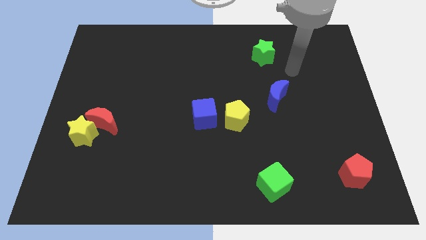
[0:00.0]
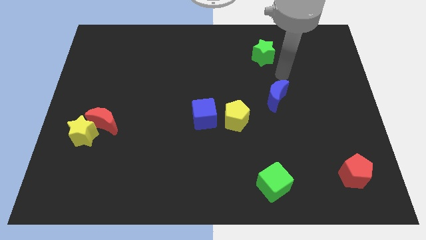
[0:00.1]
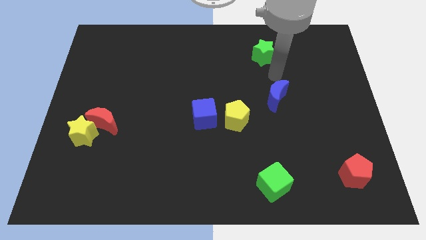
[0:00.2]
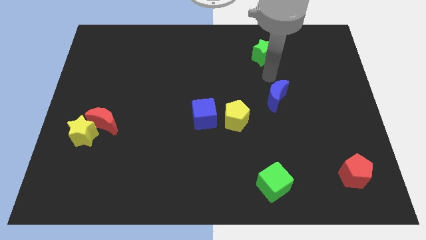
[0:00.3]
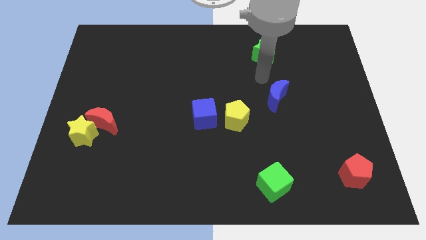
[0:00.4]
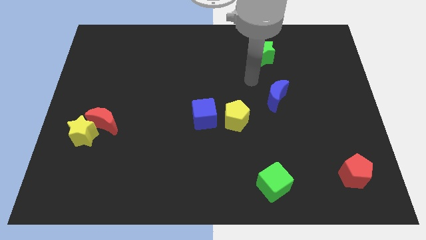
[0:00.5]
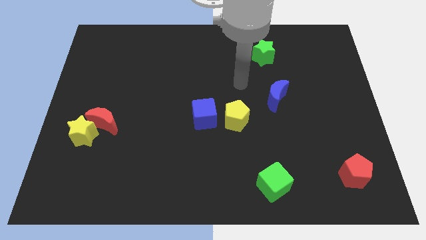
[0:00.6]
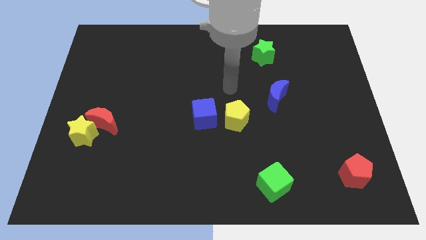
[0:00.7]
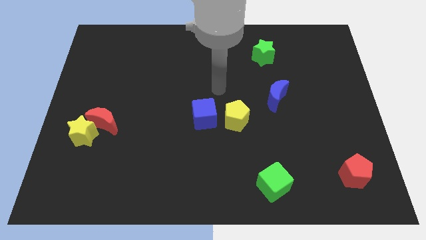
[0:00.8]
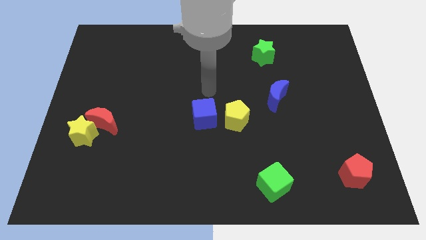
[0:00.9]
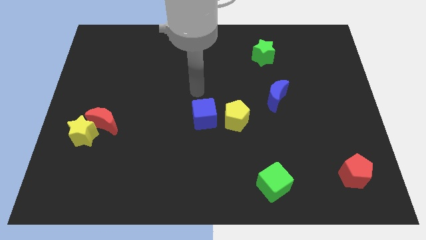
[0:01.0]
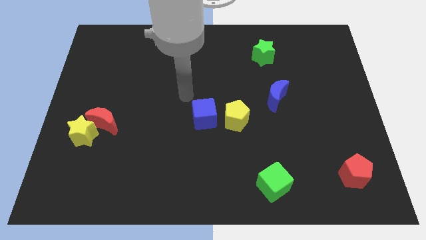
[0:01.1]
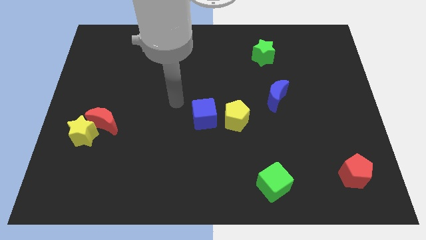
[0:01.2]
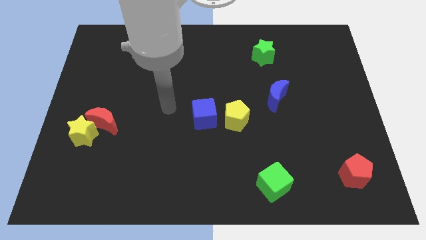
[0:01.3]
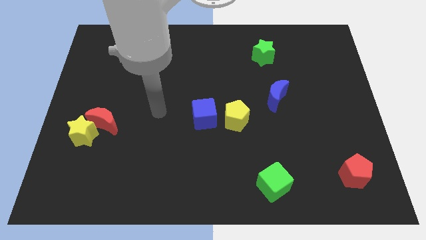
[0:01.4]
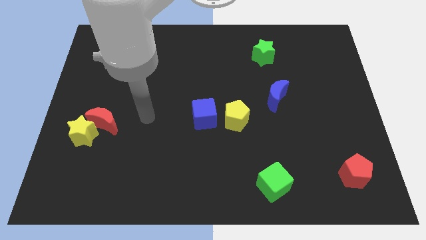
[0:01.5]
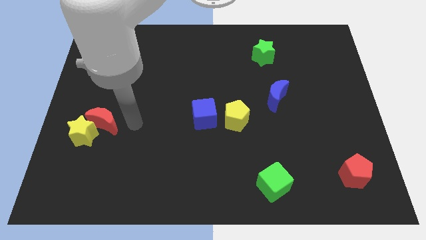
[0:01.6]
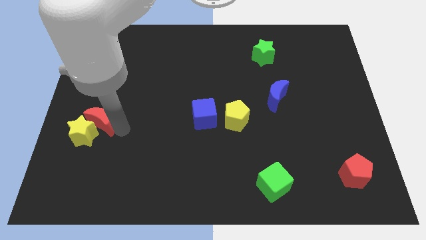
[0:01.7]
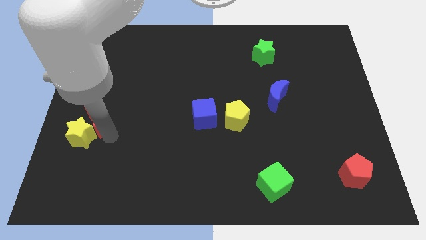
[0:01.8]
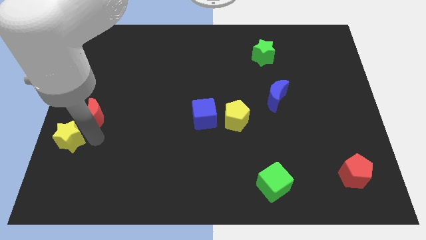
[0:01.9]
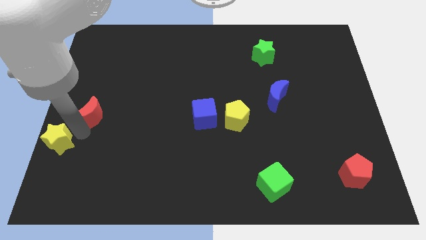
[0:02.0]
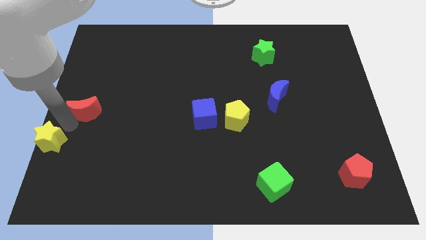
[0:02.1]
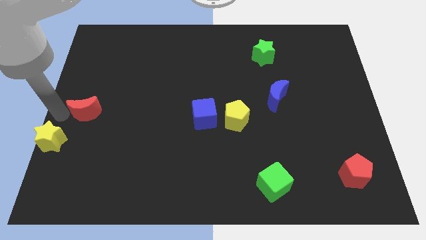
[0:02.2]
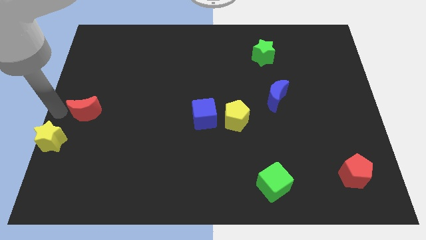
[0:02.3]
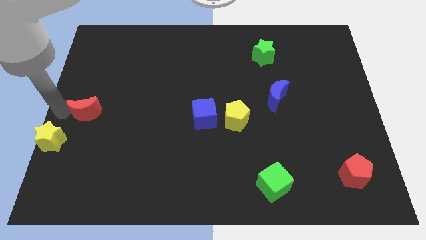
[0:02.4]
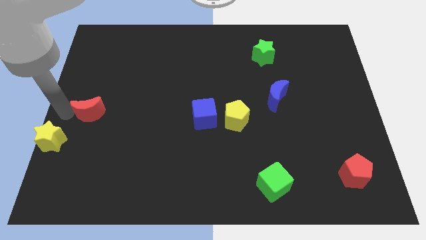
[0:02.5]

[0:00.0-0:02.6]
separate the red moon from the yellow star

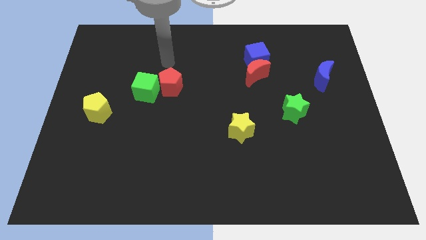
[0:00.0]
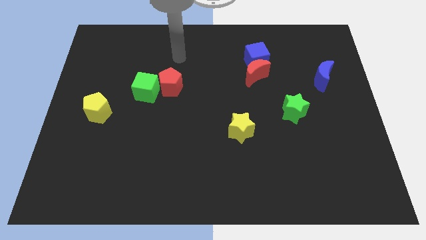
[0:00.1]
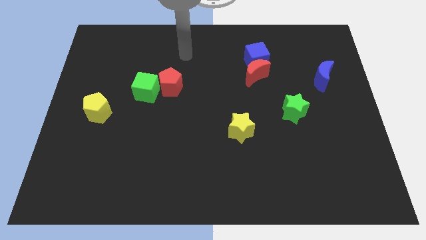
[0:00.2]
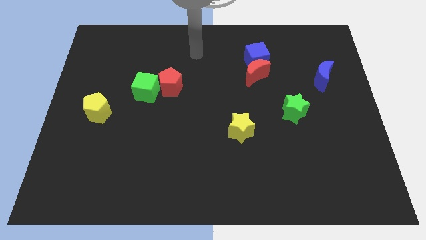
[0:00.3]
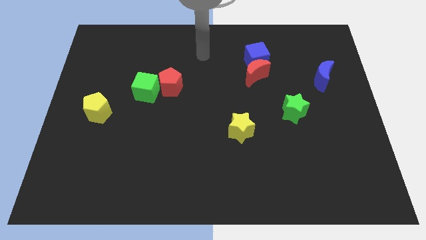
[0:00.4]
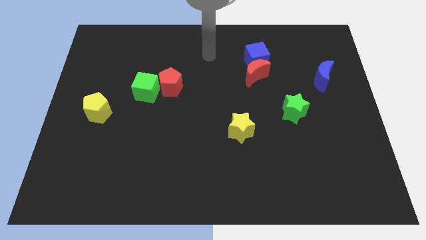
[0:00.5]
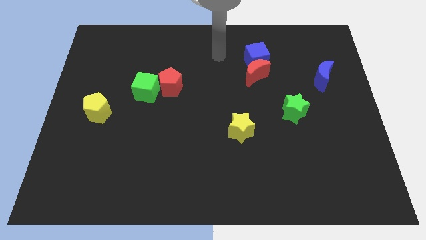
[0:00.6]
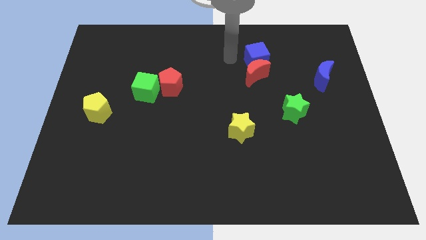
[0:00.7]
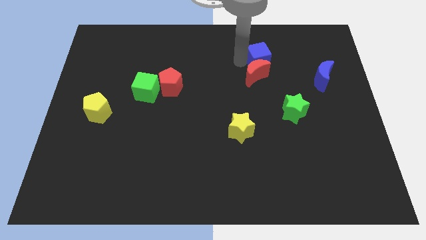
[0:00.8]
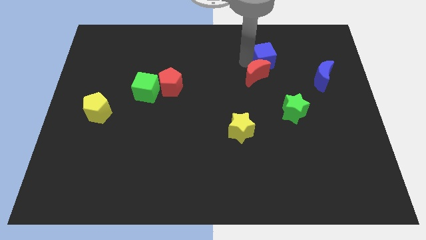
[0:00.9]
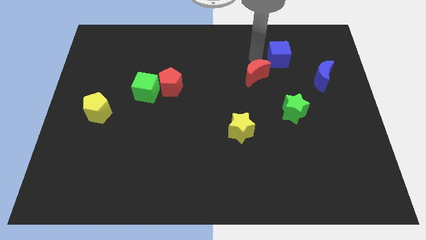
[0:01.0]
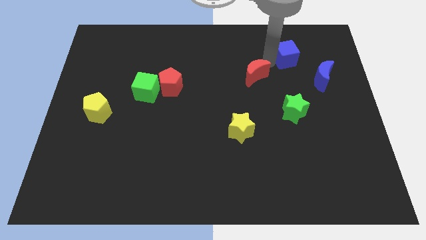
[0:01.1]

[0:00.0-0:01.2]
pull the red moon apart from the blue cube

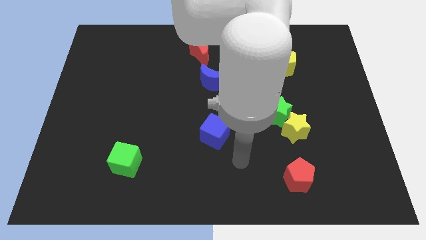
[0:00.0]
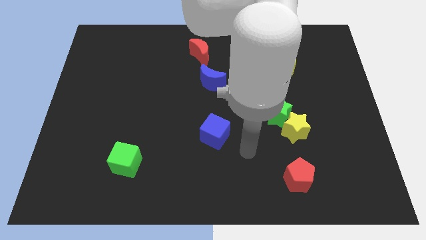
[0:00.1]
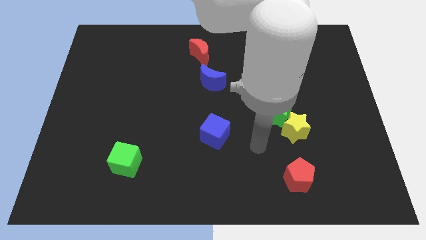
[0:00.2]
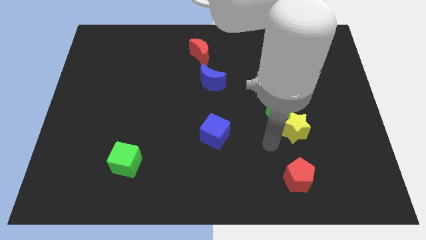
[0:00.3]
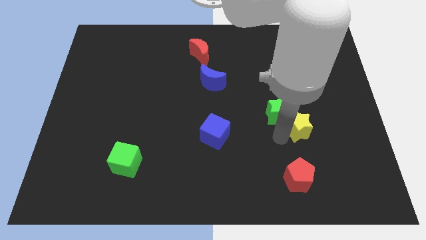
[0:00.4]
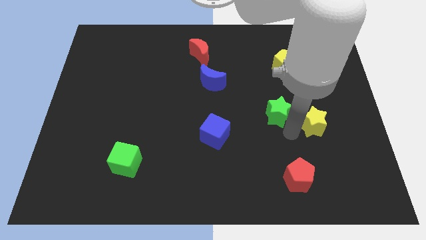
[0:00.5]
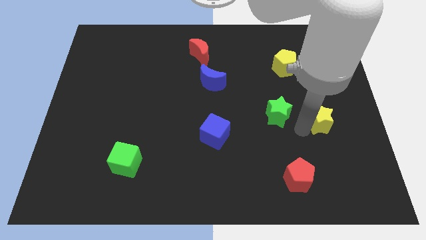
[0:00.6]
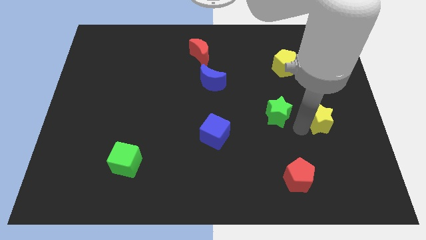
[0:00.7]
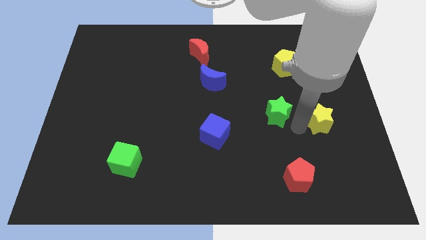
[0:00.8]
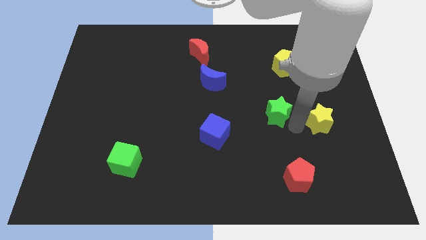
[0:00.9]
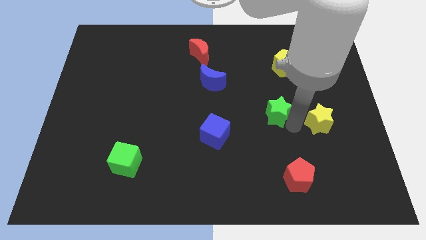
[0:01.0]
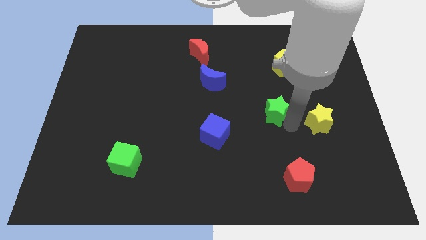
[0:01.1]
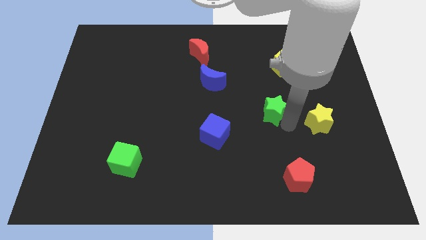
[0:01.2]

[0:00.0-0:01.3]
pull the green star apart from the yellow star

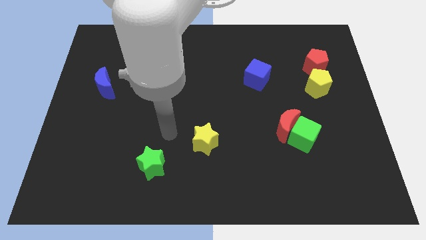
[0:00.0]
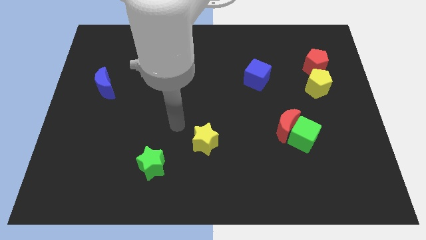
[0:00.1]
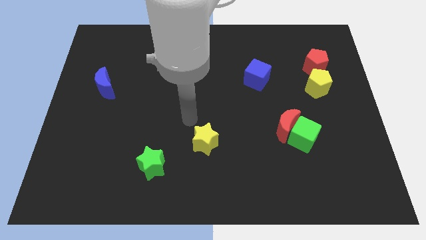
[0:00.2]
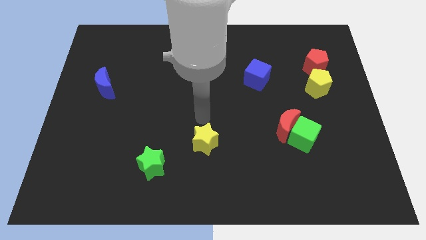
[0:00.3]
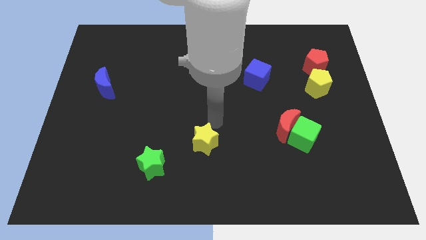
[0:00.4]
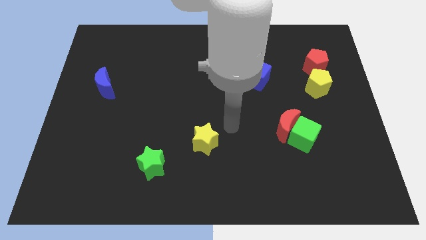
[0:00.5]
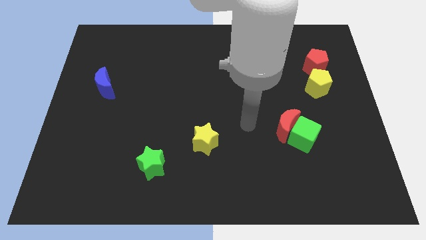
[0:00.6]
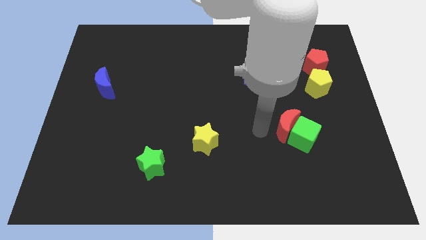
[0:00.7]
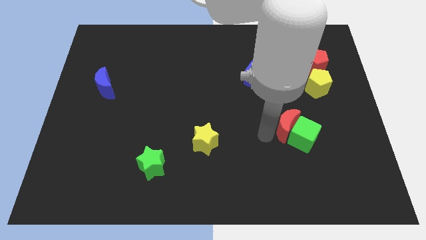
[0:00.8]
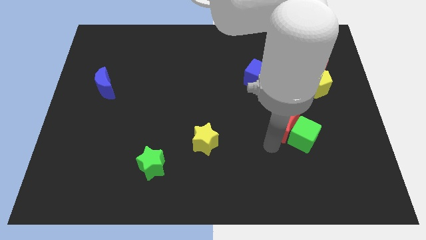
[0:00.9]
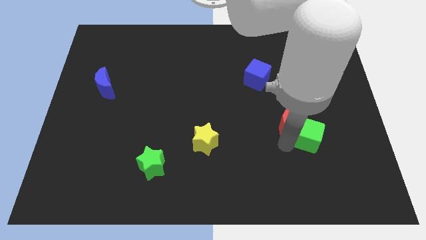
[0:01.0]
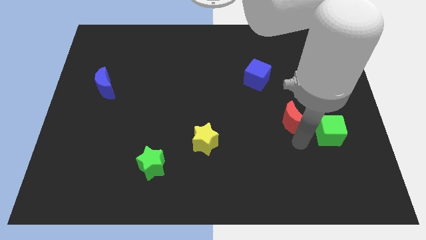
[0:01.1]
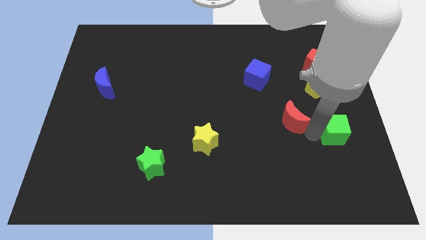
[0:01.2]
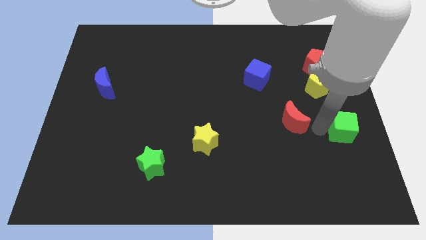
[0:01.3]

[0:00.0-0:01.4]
pull the red moon apart from the green cube

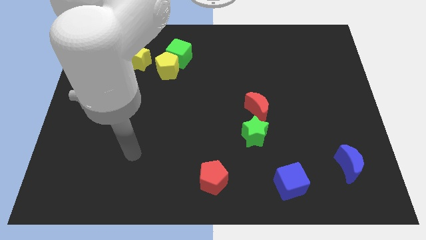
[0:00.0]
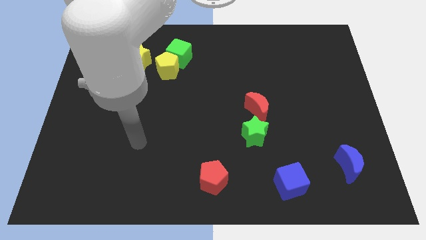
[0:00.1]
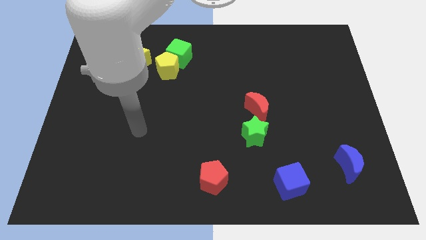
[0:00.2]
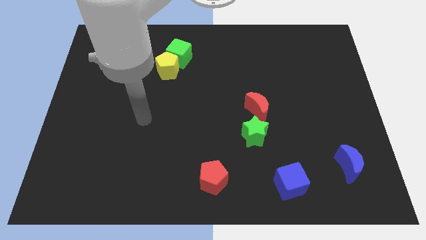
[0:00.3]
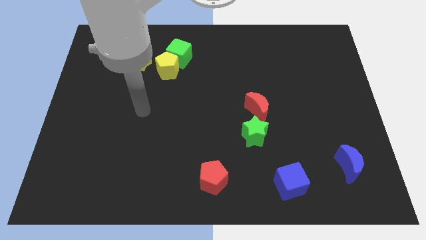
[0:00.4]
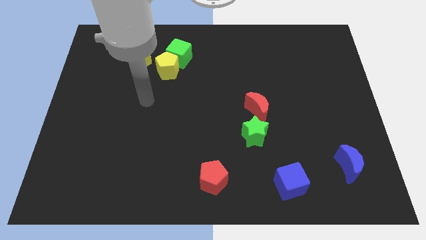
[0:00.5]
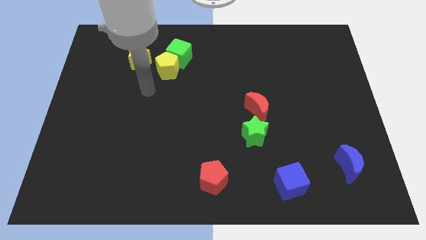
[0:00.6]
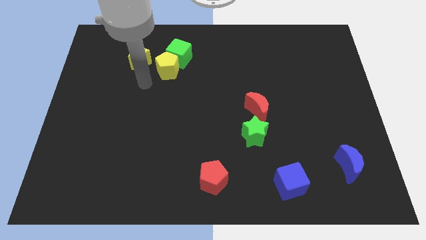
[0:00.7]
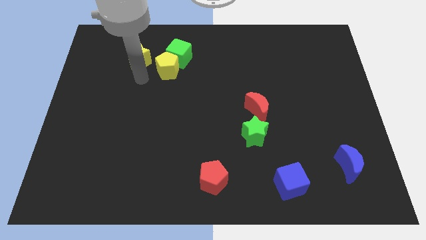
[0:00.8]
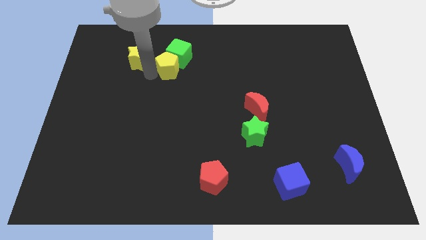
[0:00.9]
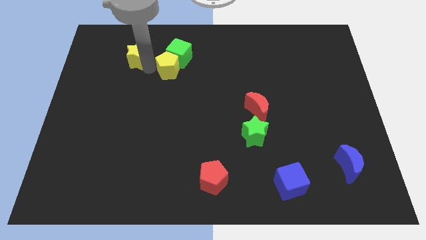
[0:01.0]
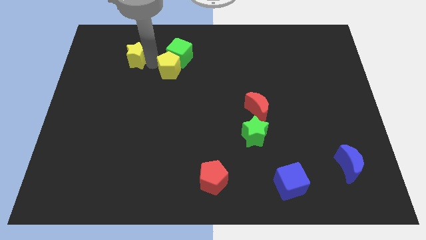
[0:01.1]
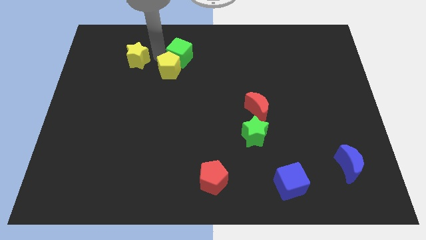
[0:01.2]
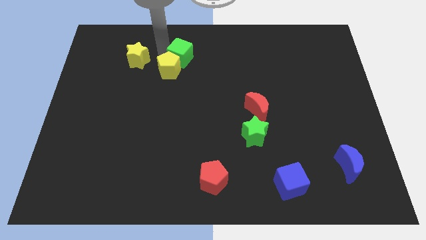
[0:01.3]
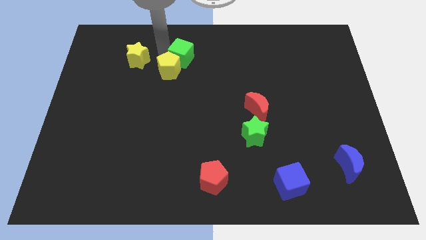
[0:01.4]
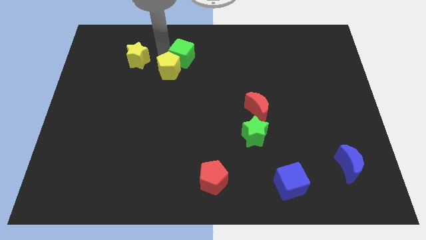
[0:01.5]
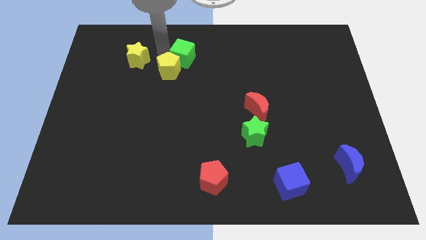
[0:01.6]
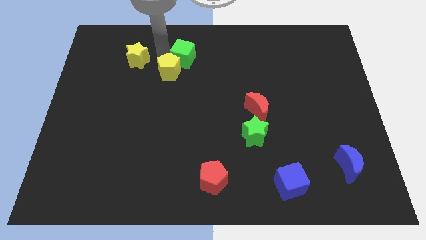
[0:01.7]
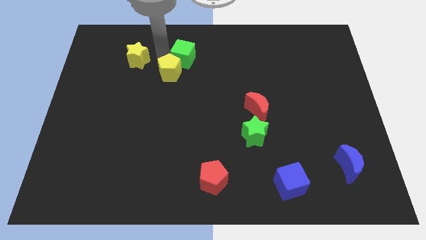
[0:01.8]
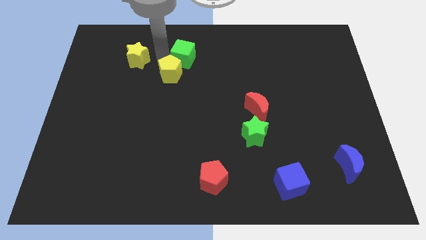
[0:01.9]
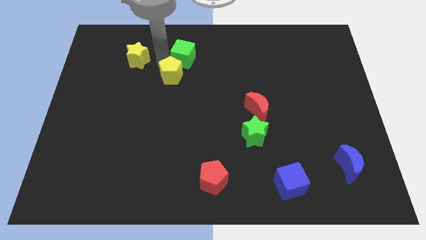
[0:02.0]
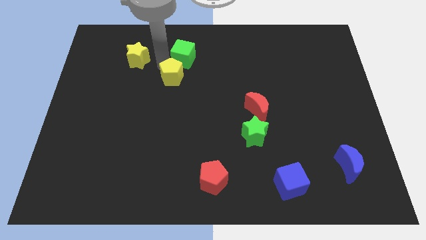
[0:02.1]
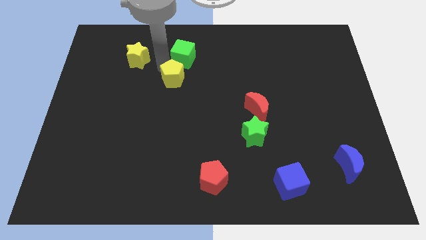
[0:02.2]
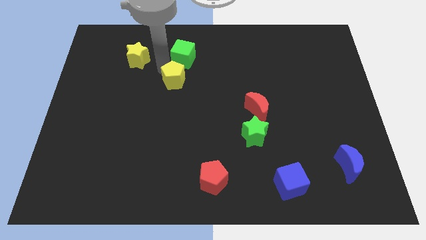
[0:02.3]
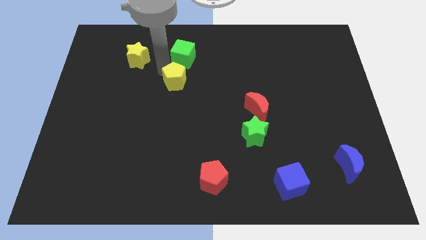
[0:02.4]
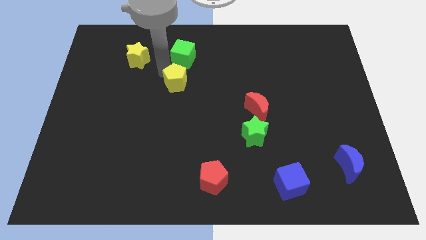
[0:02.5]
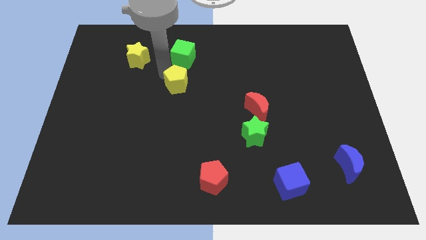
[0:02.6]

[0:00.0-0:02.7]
separate the yellow pentagon from the green cube and yellow star
